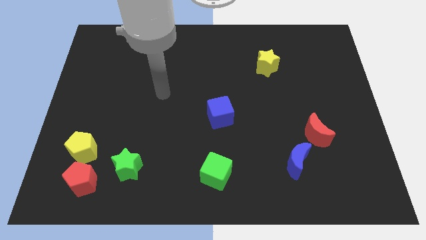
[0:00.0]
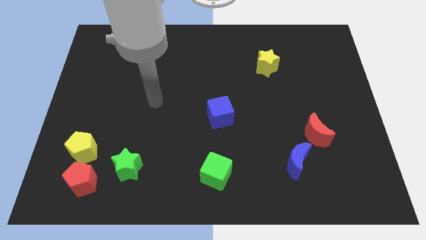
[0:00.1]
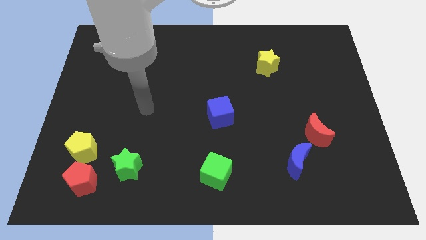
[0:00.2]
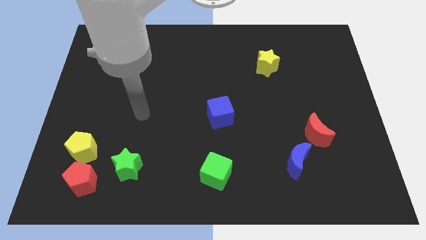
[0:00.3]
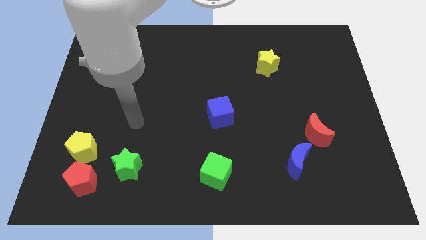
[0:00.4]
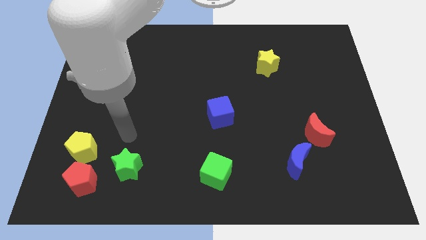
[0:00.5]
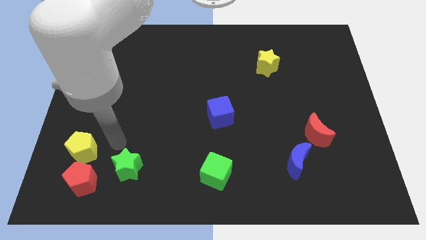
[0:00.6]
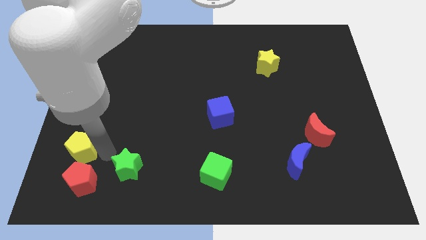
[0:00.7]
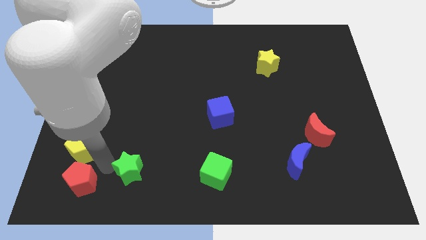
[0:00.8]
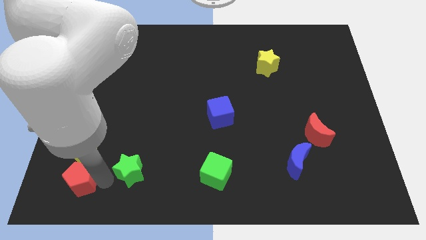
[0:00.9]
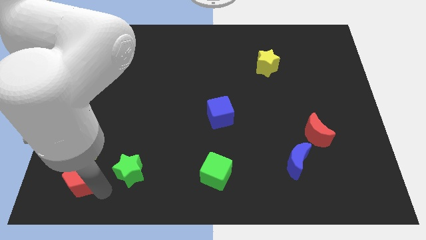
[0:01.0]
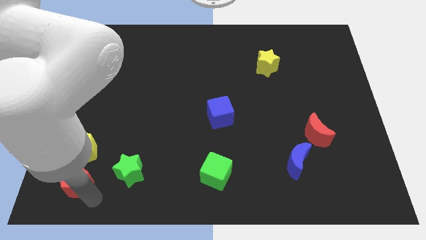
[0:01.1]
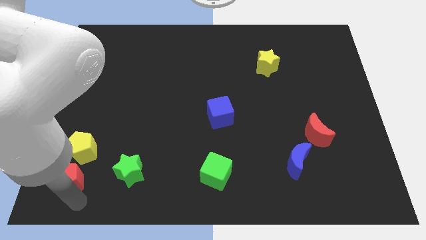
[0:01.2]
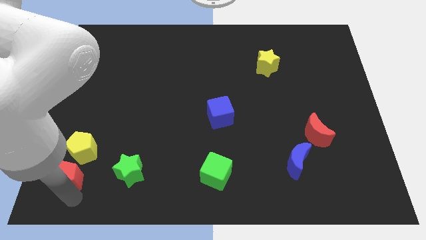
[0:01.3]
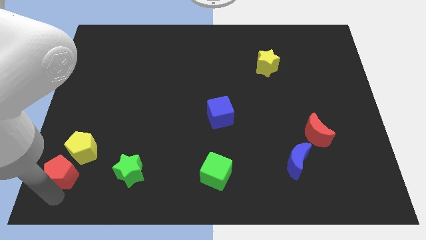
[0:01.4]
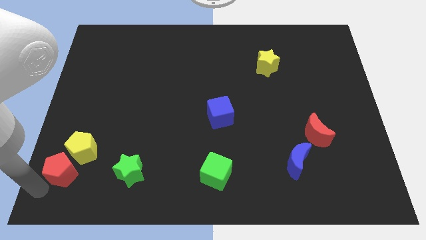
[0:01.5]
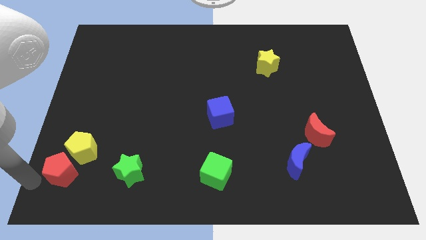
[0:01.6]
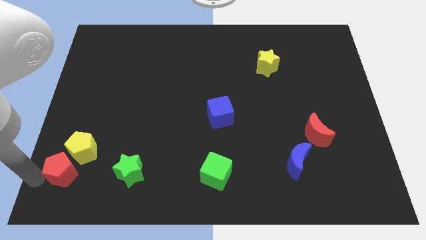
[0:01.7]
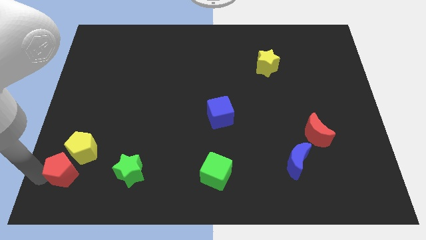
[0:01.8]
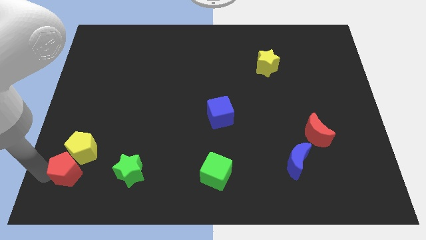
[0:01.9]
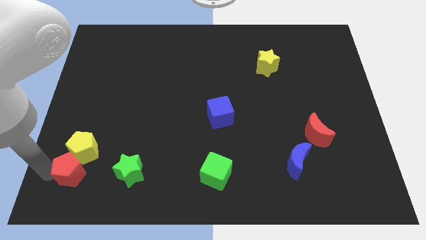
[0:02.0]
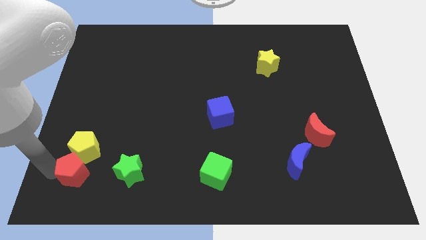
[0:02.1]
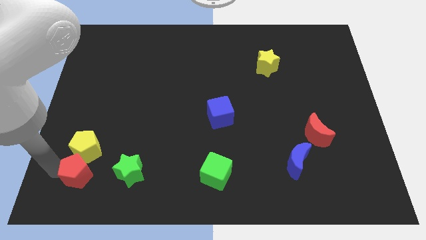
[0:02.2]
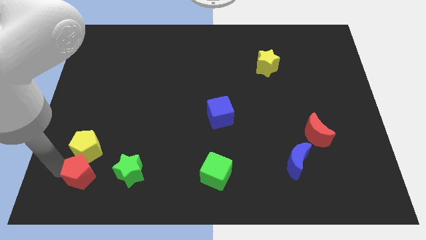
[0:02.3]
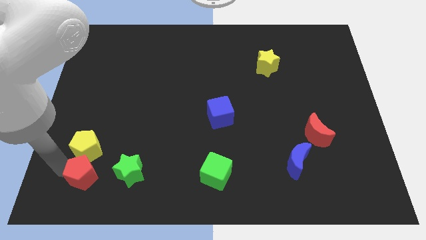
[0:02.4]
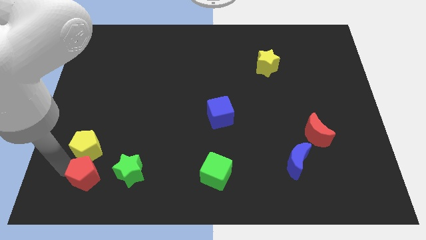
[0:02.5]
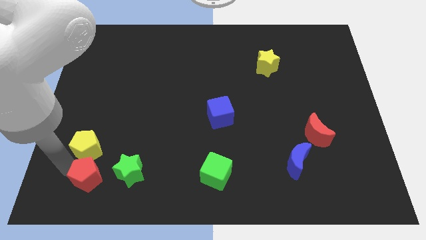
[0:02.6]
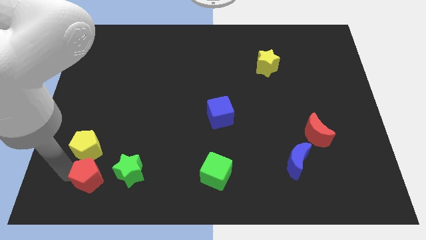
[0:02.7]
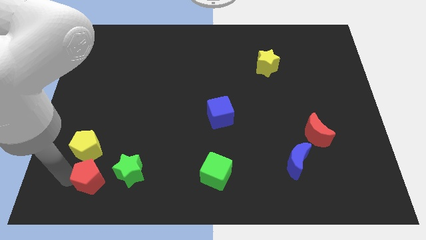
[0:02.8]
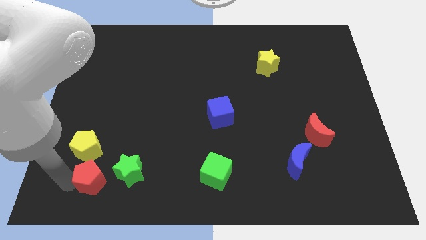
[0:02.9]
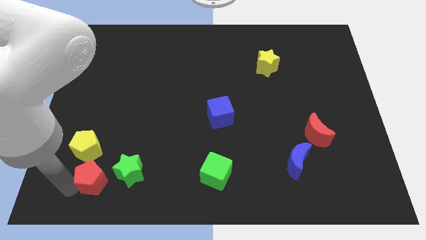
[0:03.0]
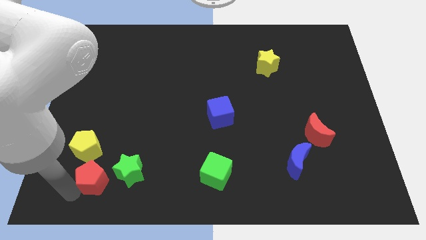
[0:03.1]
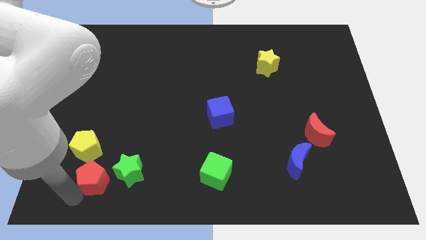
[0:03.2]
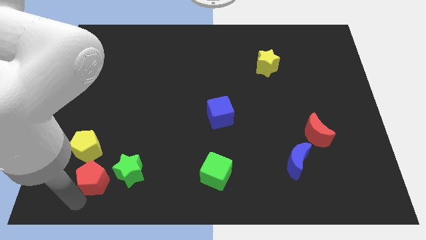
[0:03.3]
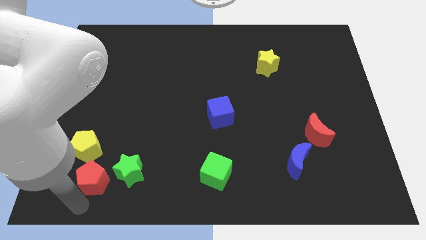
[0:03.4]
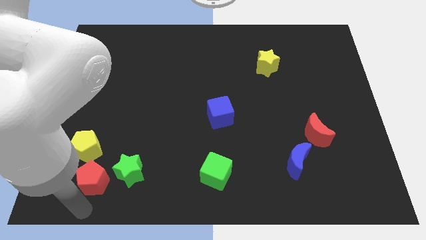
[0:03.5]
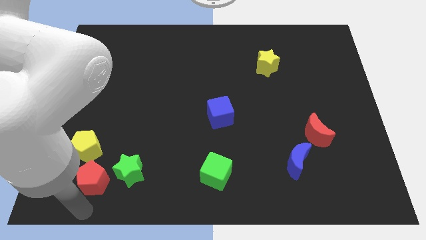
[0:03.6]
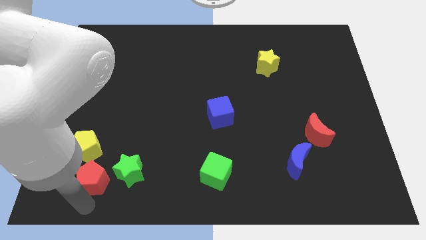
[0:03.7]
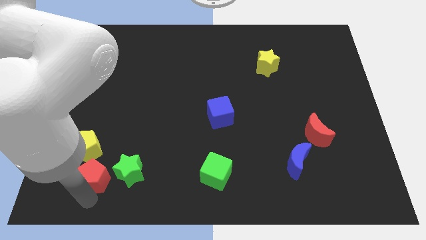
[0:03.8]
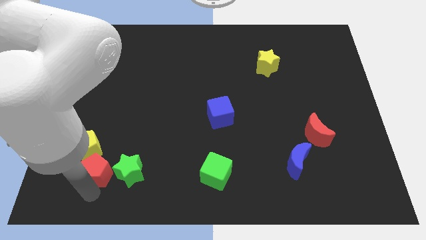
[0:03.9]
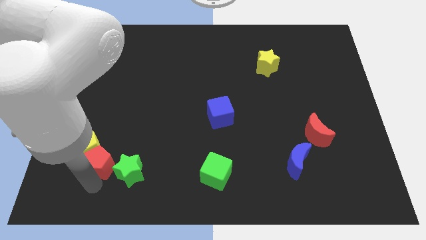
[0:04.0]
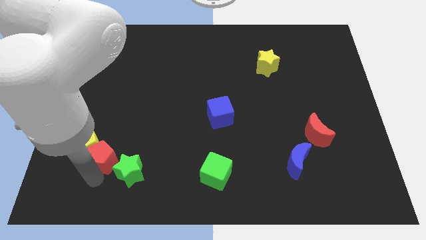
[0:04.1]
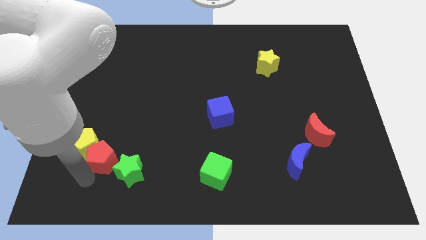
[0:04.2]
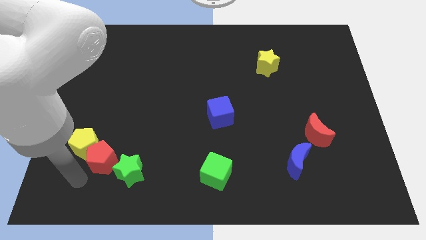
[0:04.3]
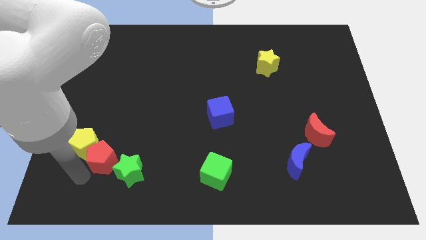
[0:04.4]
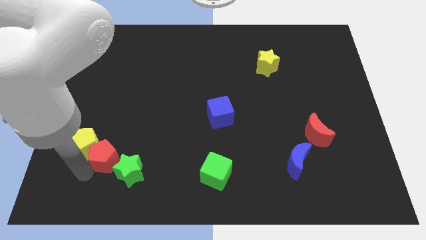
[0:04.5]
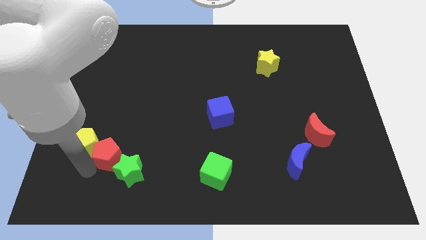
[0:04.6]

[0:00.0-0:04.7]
push the red pentagon slightly up and then right

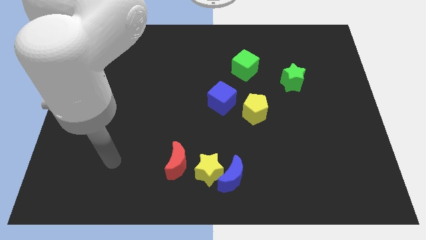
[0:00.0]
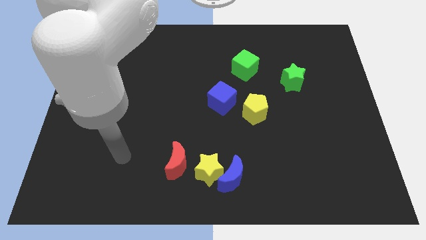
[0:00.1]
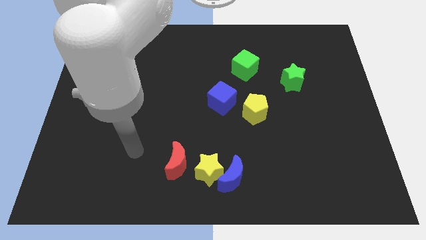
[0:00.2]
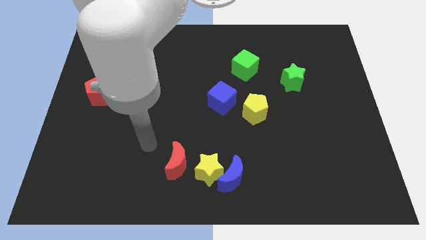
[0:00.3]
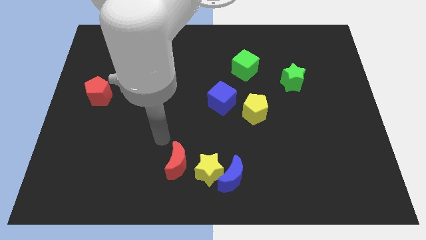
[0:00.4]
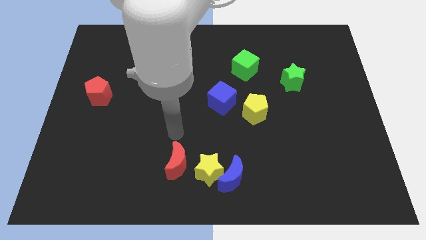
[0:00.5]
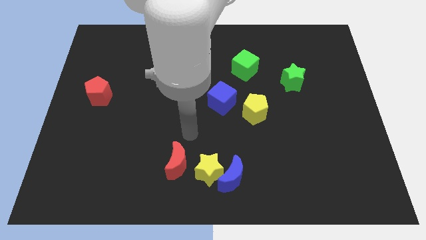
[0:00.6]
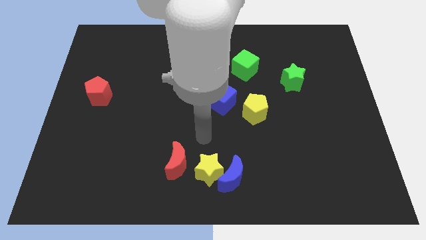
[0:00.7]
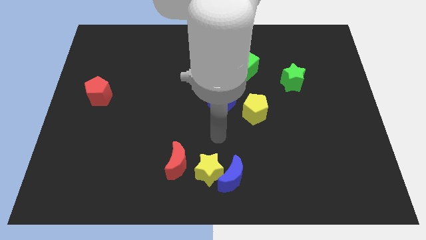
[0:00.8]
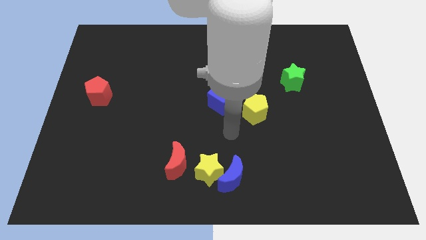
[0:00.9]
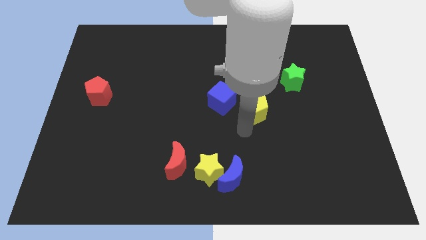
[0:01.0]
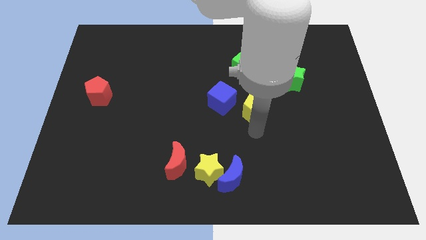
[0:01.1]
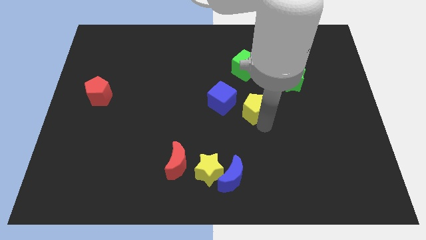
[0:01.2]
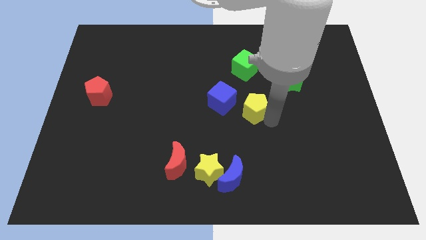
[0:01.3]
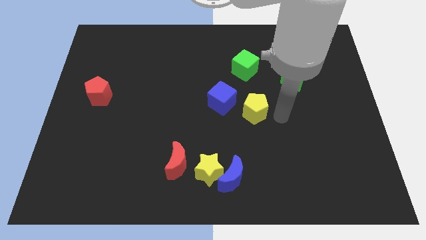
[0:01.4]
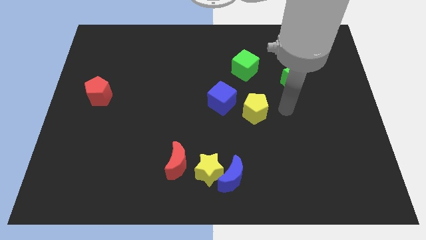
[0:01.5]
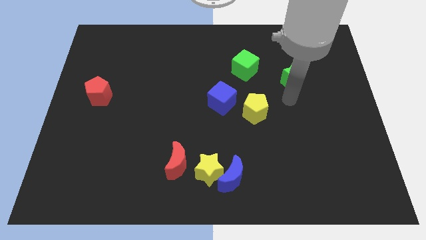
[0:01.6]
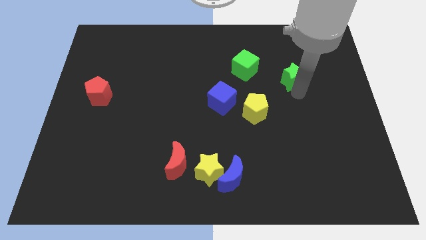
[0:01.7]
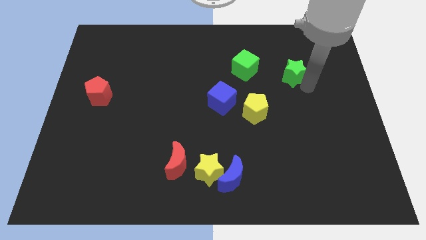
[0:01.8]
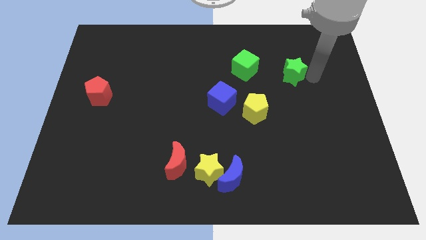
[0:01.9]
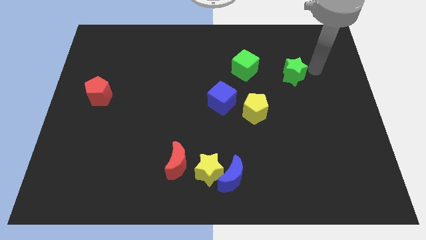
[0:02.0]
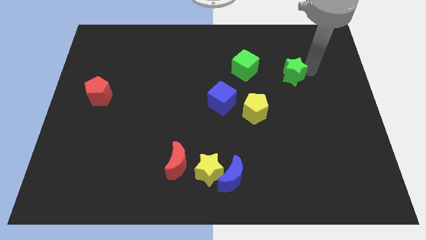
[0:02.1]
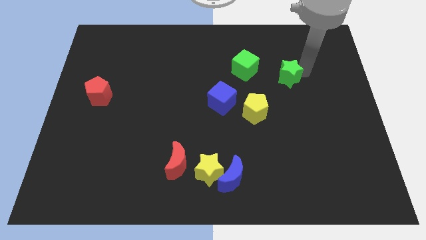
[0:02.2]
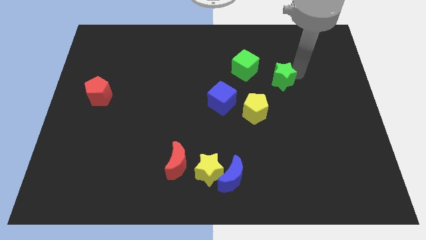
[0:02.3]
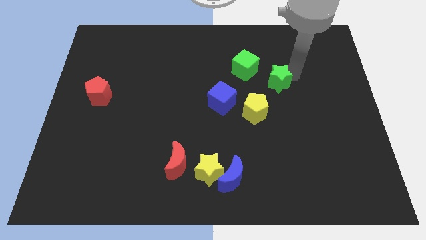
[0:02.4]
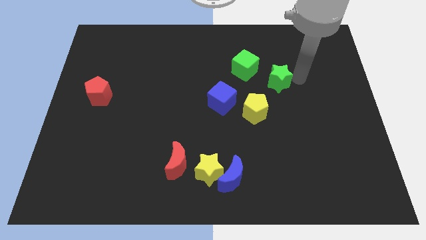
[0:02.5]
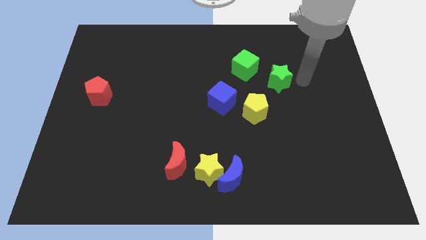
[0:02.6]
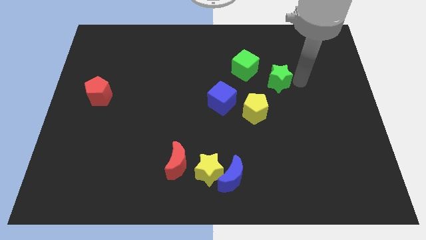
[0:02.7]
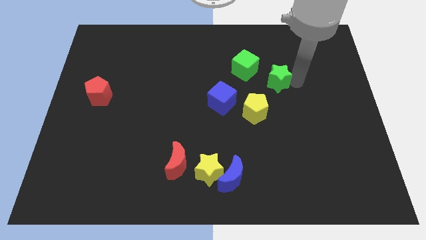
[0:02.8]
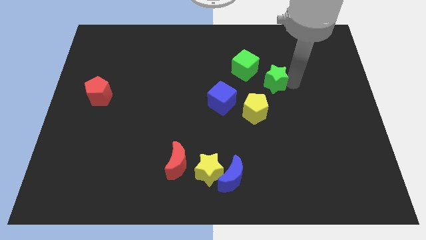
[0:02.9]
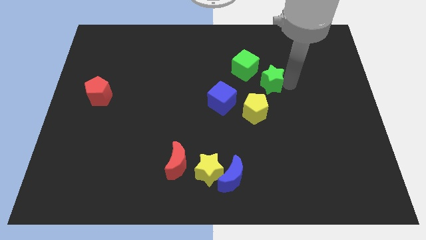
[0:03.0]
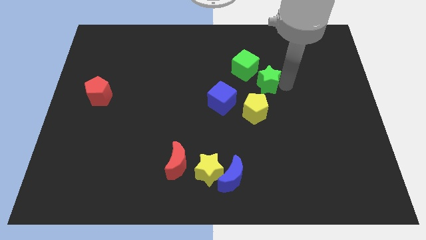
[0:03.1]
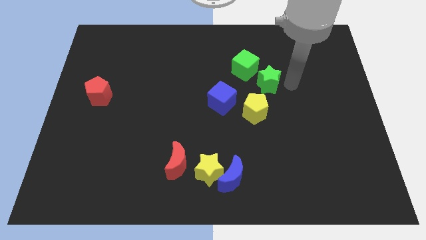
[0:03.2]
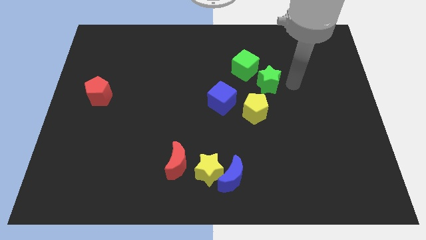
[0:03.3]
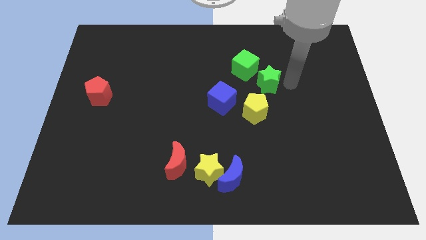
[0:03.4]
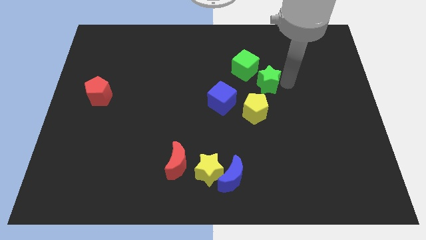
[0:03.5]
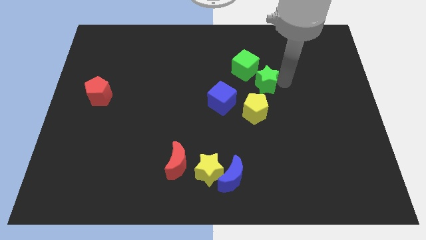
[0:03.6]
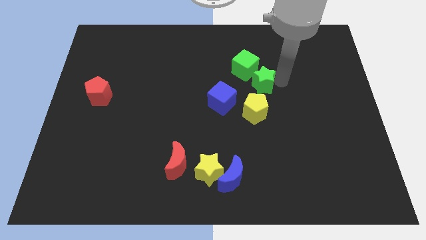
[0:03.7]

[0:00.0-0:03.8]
slide the green star left a little
